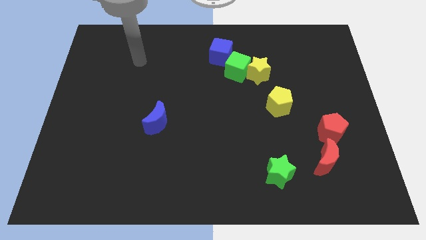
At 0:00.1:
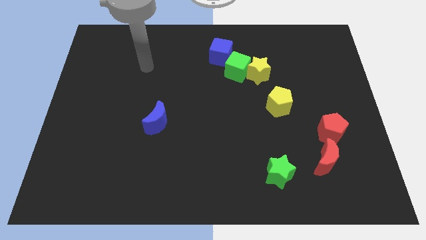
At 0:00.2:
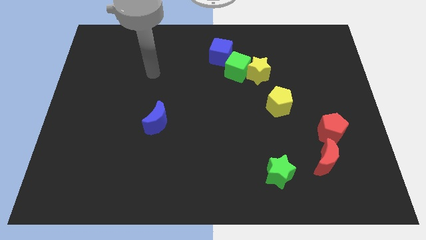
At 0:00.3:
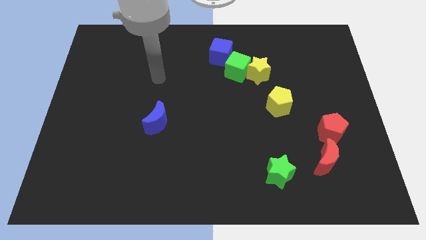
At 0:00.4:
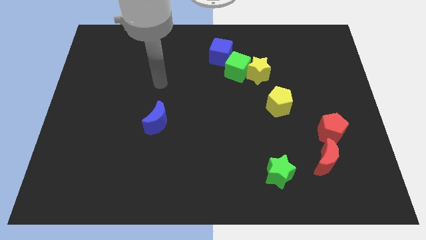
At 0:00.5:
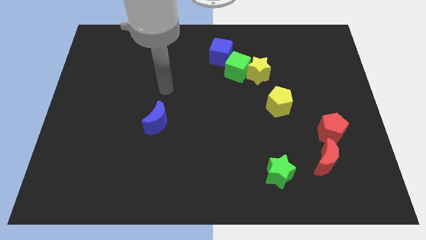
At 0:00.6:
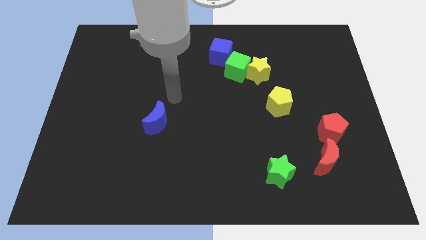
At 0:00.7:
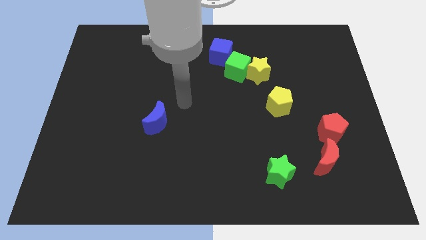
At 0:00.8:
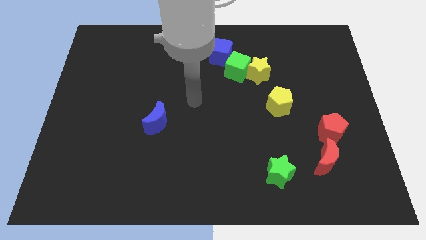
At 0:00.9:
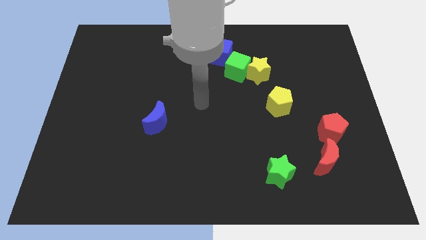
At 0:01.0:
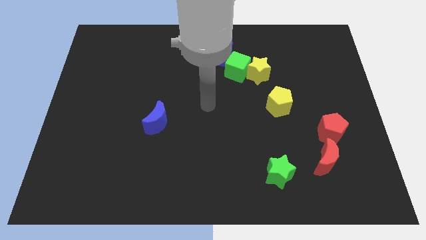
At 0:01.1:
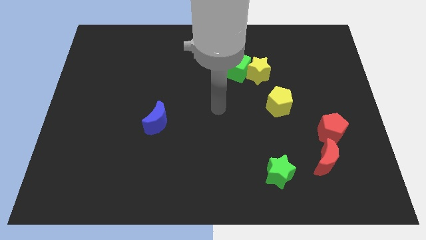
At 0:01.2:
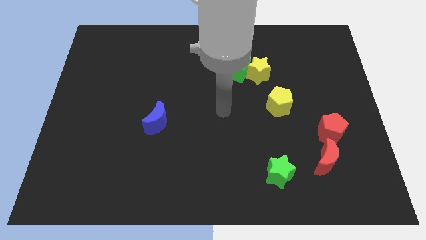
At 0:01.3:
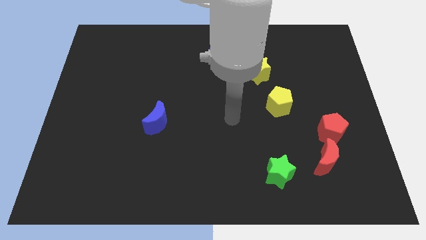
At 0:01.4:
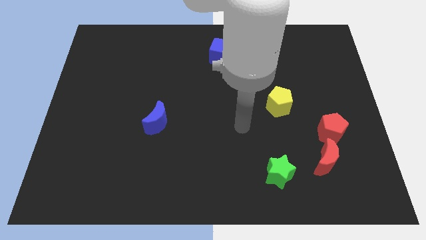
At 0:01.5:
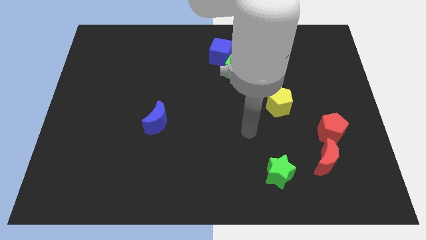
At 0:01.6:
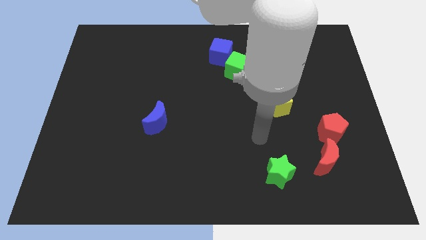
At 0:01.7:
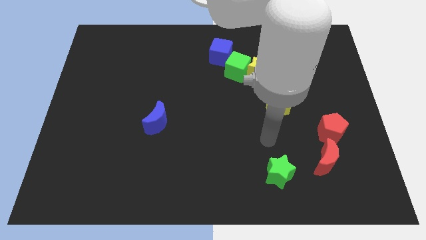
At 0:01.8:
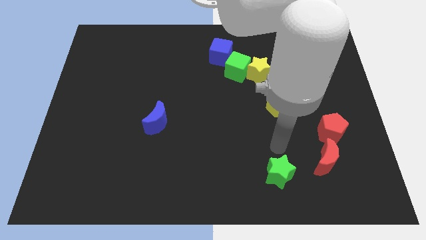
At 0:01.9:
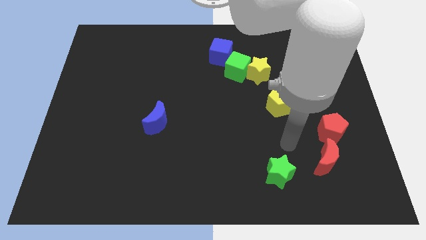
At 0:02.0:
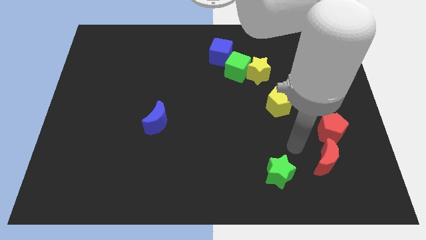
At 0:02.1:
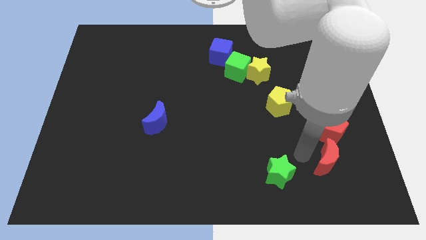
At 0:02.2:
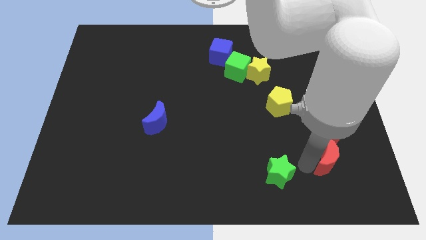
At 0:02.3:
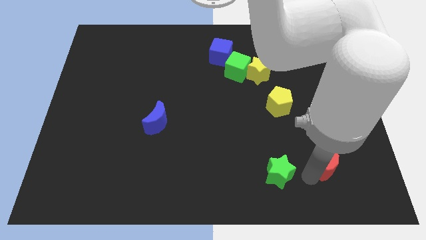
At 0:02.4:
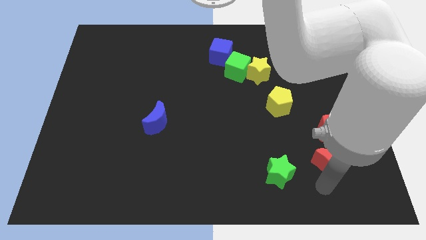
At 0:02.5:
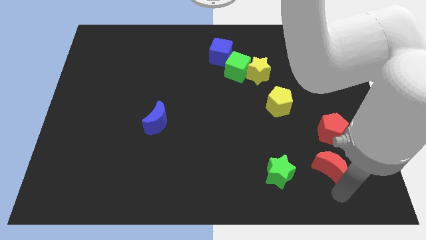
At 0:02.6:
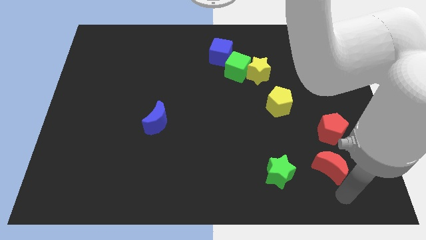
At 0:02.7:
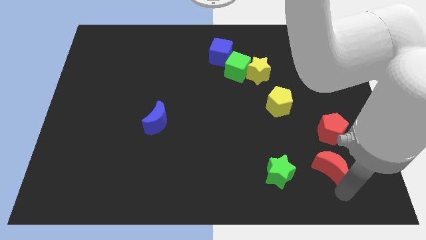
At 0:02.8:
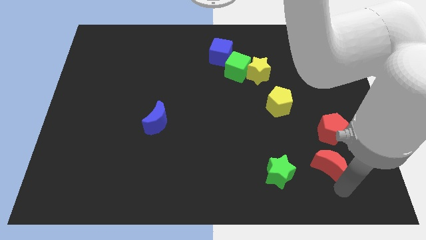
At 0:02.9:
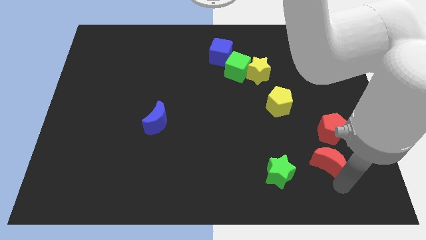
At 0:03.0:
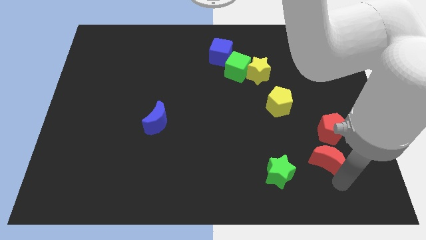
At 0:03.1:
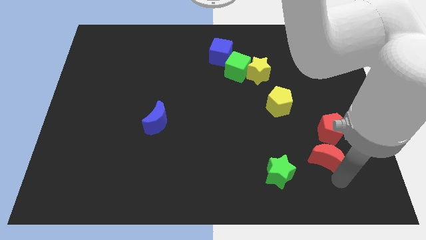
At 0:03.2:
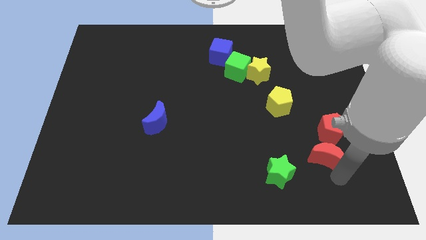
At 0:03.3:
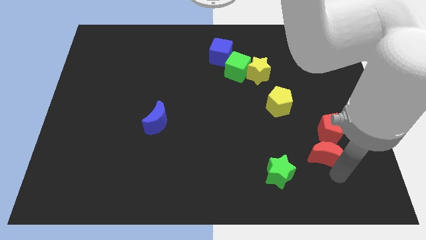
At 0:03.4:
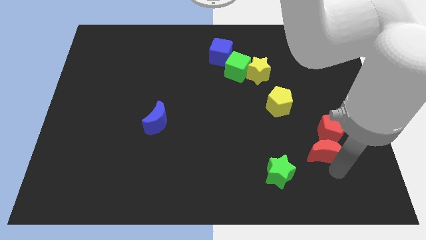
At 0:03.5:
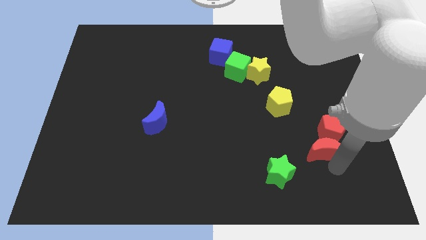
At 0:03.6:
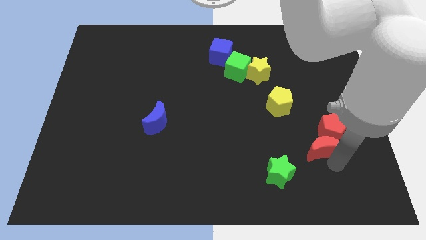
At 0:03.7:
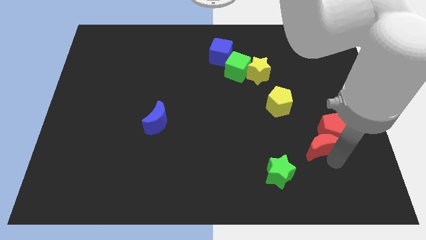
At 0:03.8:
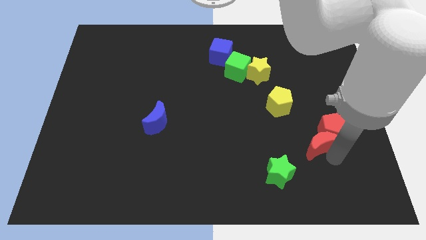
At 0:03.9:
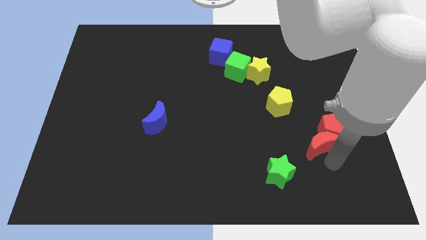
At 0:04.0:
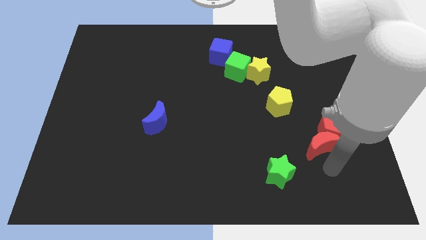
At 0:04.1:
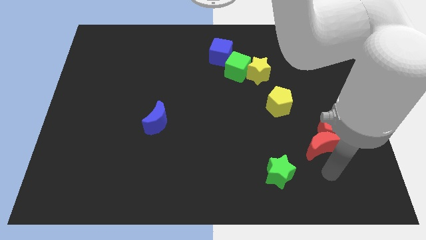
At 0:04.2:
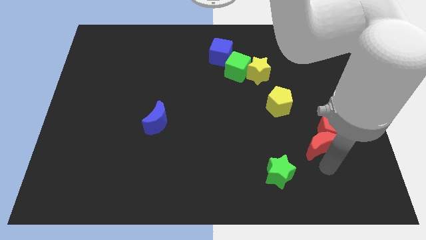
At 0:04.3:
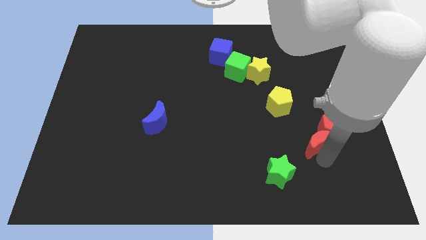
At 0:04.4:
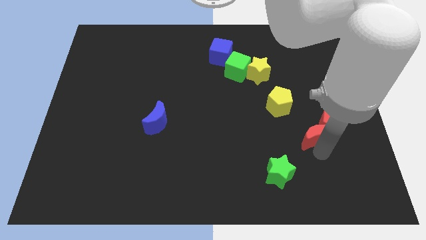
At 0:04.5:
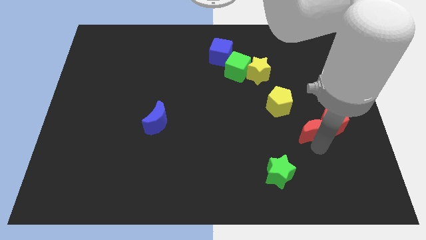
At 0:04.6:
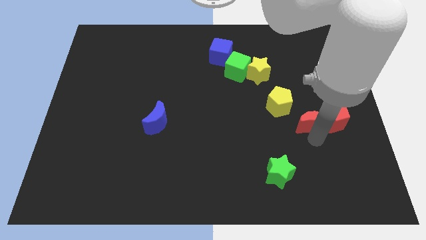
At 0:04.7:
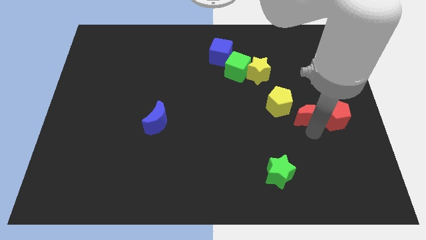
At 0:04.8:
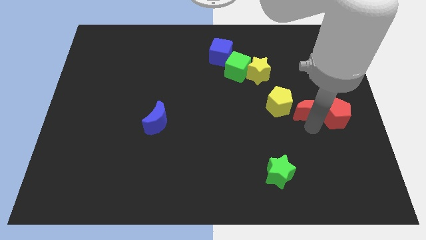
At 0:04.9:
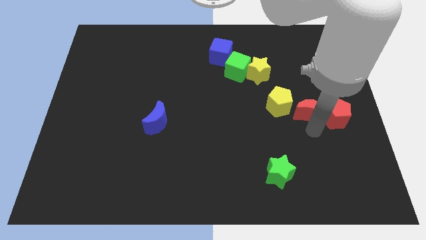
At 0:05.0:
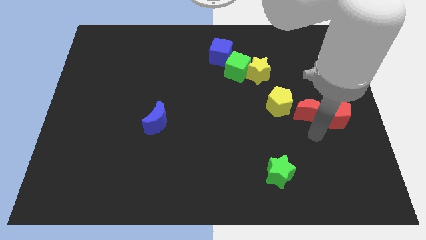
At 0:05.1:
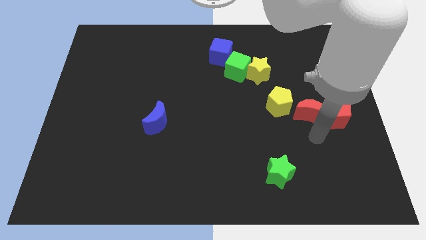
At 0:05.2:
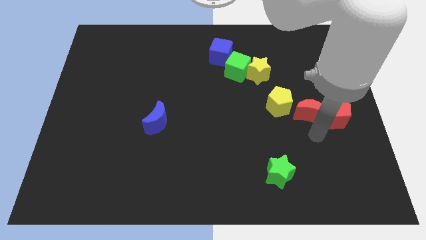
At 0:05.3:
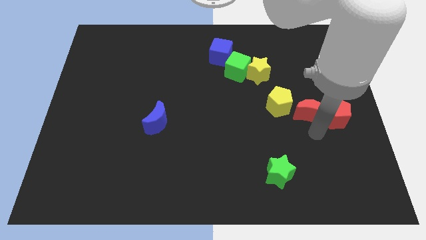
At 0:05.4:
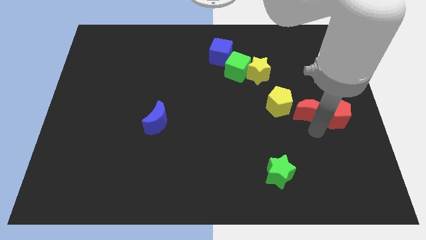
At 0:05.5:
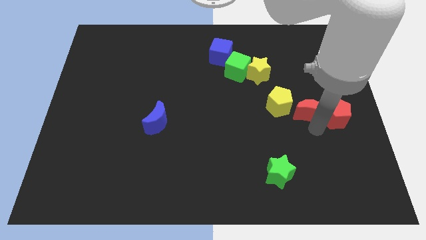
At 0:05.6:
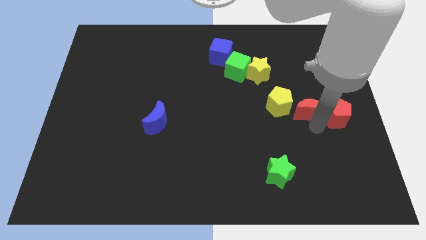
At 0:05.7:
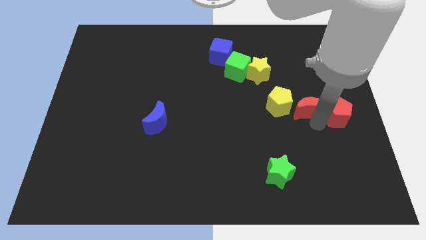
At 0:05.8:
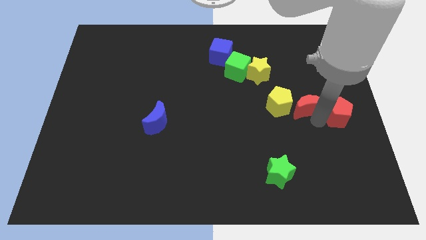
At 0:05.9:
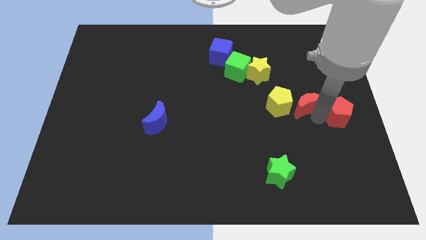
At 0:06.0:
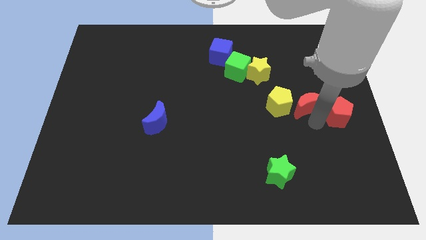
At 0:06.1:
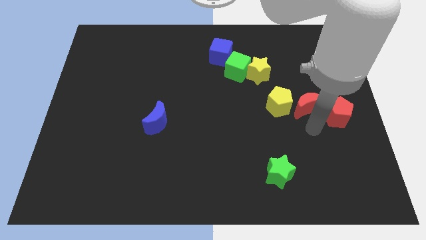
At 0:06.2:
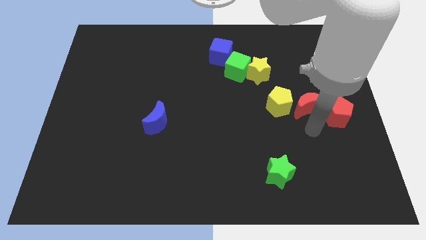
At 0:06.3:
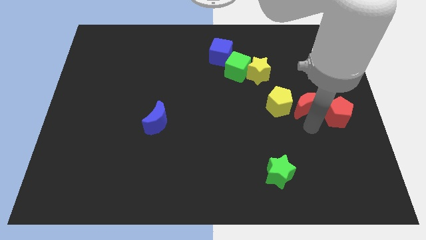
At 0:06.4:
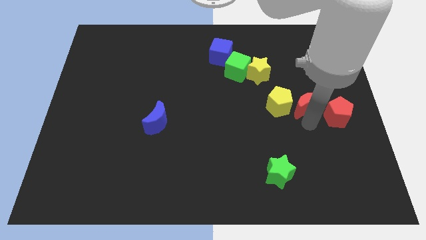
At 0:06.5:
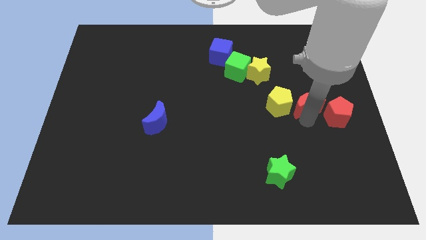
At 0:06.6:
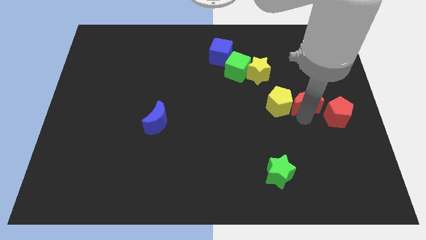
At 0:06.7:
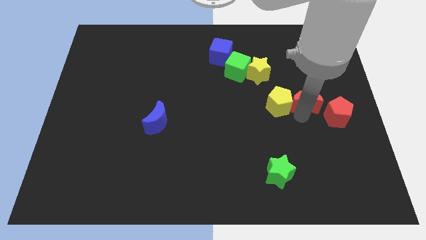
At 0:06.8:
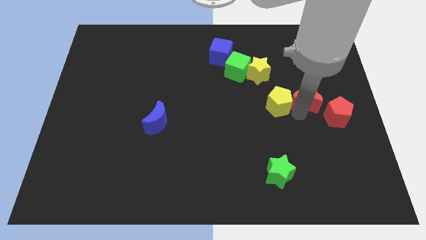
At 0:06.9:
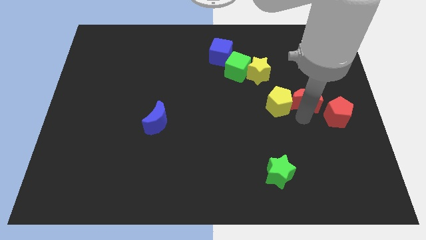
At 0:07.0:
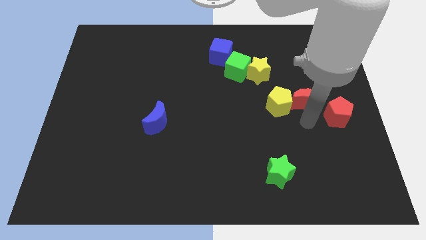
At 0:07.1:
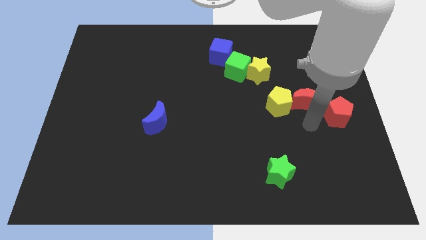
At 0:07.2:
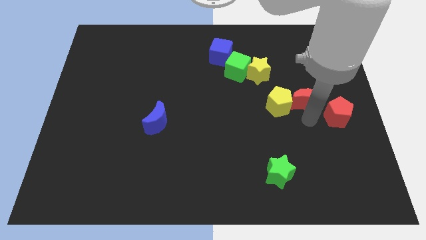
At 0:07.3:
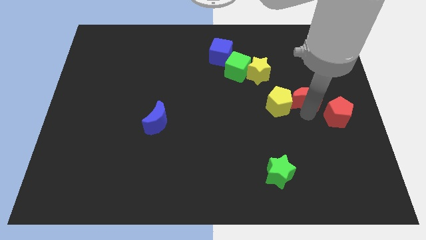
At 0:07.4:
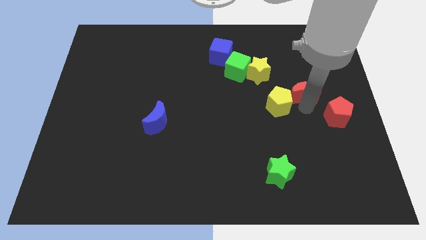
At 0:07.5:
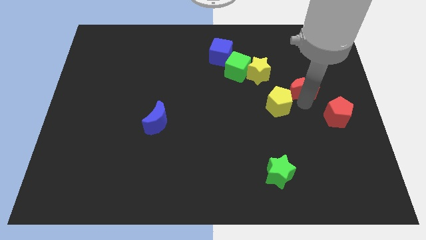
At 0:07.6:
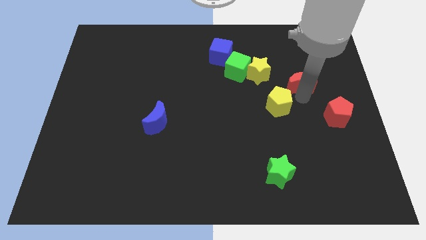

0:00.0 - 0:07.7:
move the red moon just right of the yellow star
